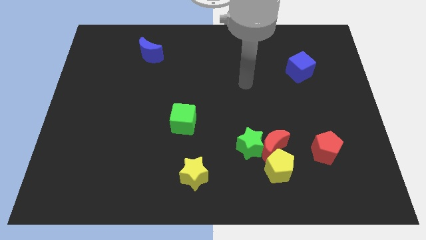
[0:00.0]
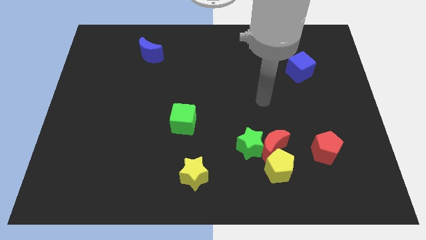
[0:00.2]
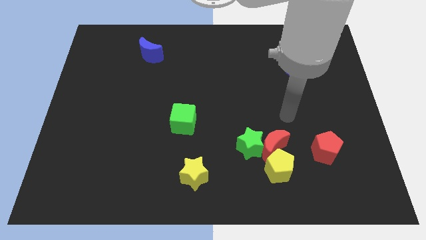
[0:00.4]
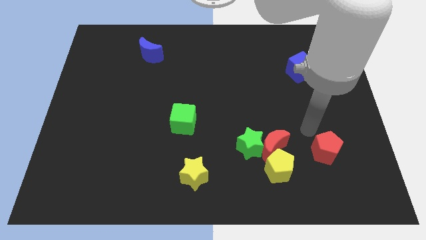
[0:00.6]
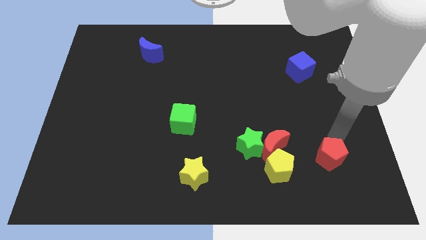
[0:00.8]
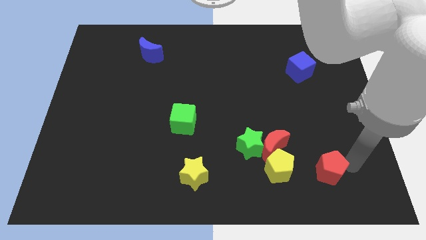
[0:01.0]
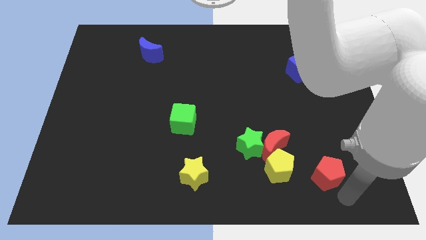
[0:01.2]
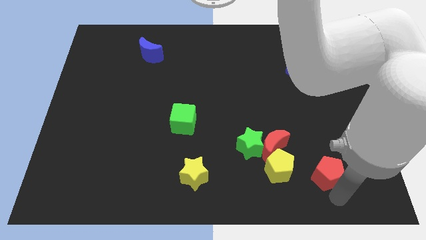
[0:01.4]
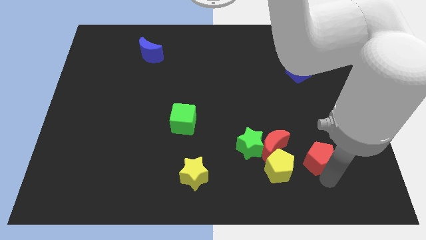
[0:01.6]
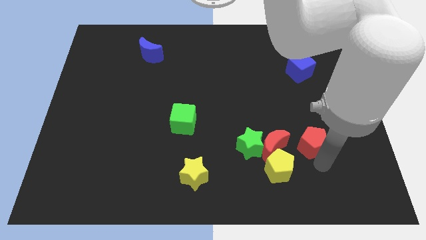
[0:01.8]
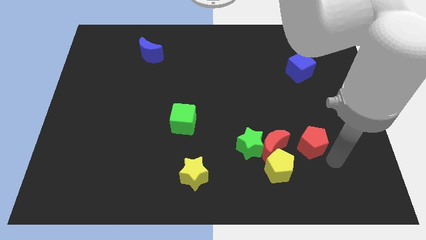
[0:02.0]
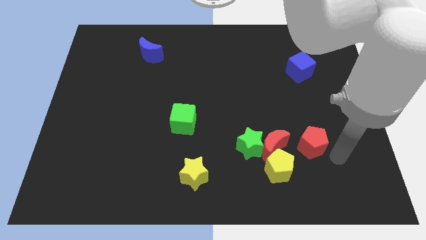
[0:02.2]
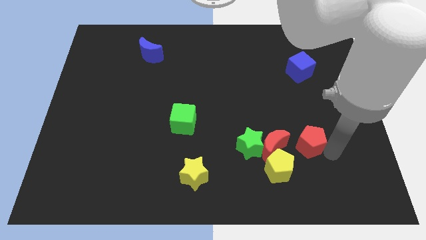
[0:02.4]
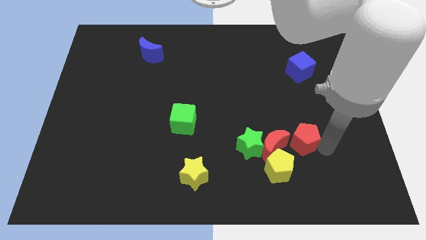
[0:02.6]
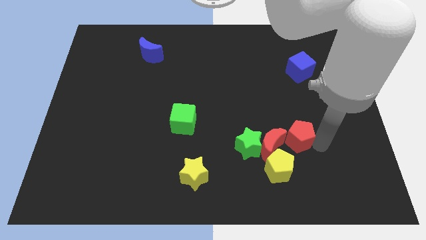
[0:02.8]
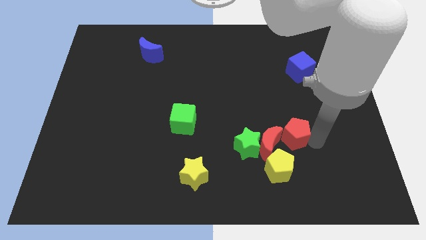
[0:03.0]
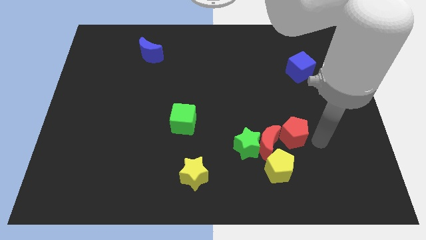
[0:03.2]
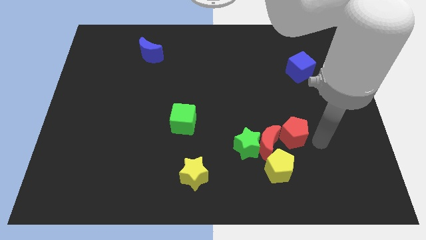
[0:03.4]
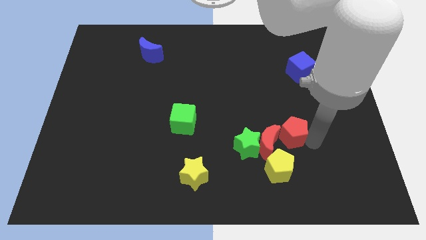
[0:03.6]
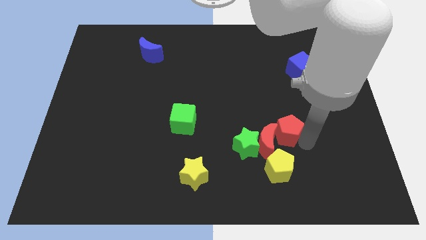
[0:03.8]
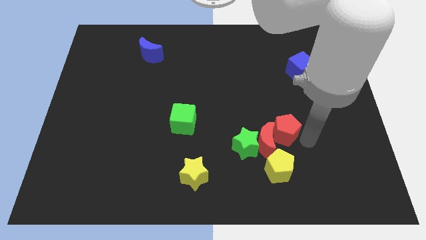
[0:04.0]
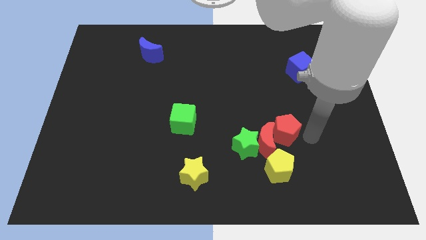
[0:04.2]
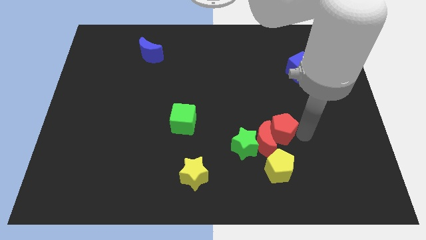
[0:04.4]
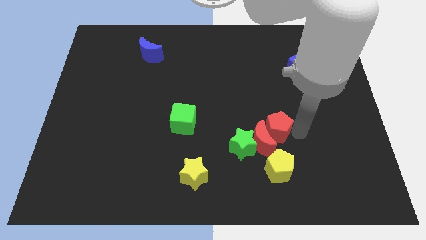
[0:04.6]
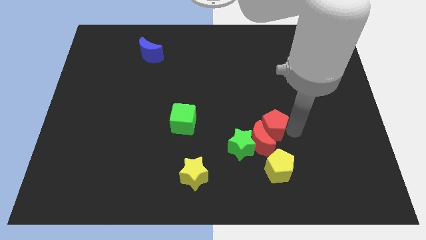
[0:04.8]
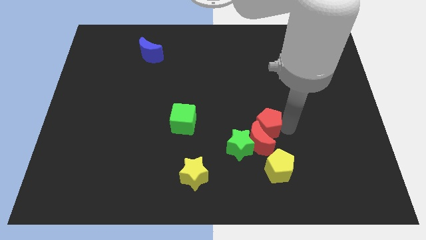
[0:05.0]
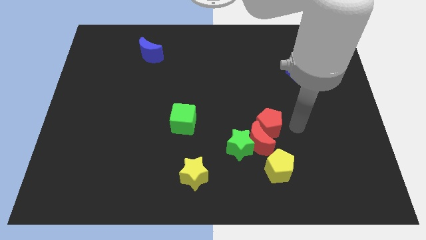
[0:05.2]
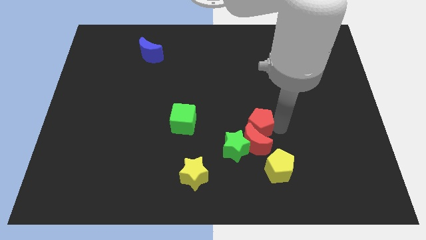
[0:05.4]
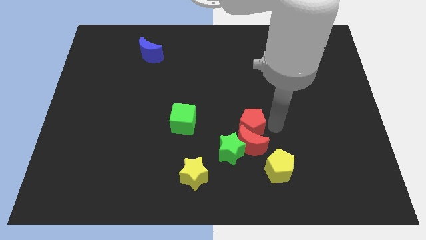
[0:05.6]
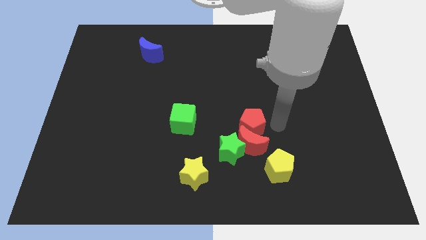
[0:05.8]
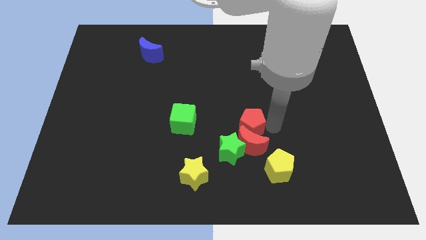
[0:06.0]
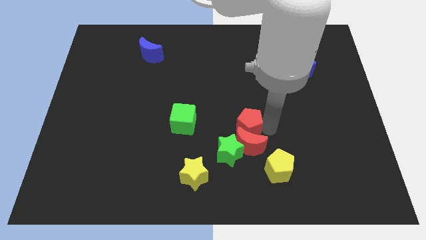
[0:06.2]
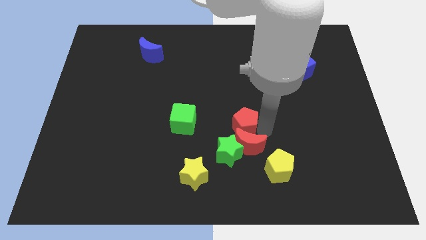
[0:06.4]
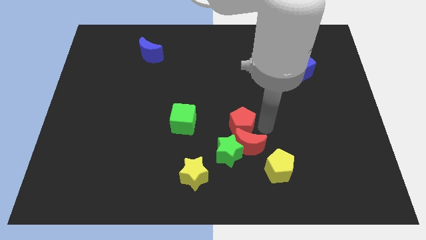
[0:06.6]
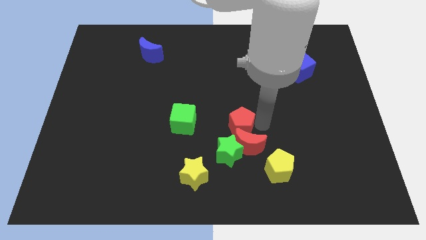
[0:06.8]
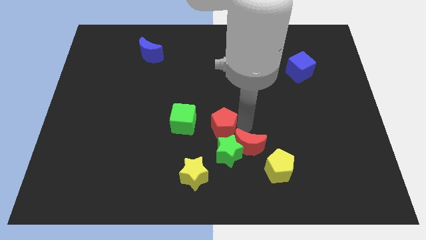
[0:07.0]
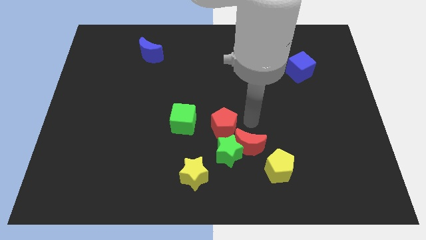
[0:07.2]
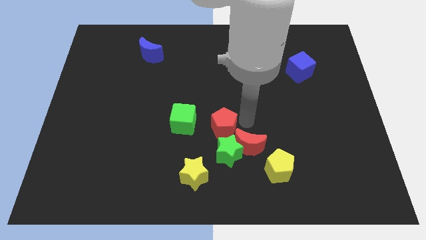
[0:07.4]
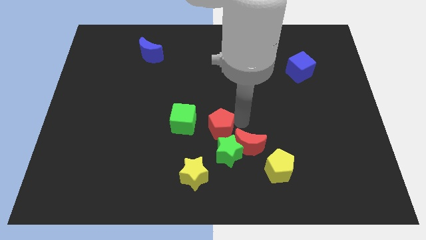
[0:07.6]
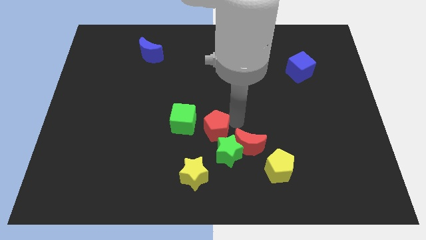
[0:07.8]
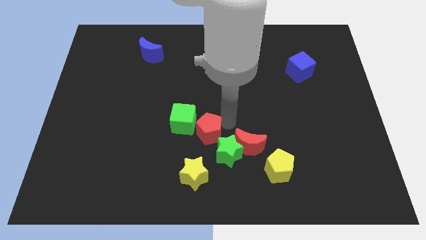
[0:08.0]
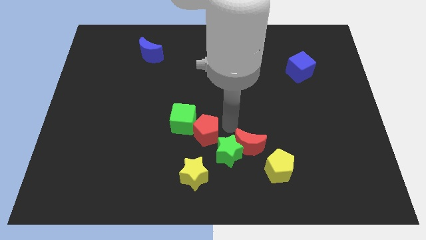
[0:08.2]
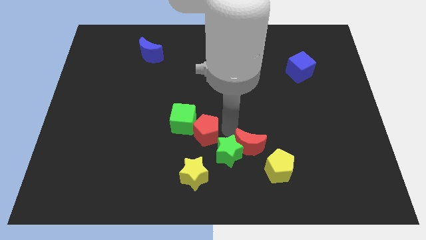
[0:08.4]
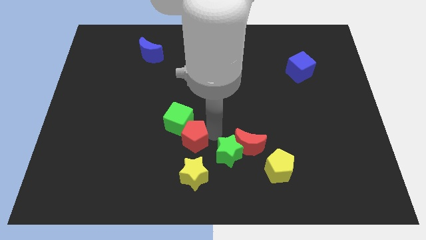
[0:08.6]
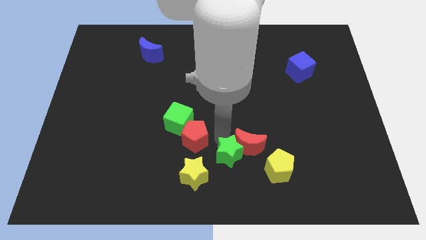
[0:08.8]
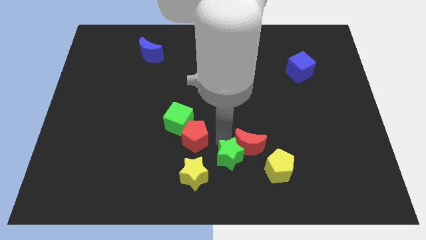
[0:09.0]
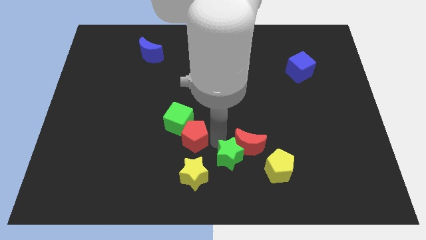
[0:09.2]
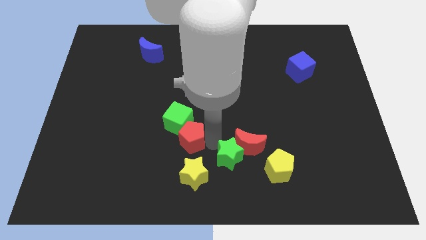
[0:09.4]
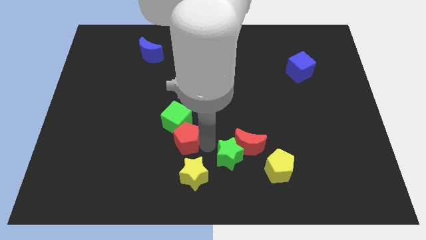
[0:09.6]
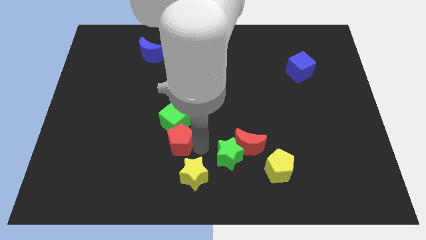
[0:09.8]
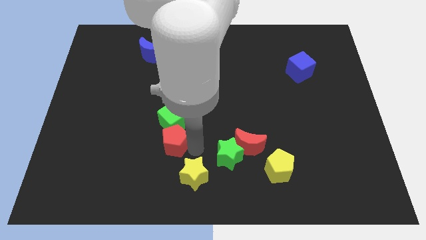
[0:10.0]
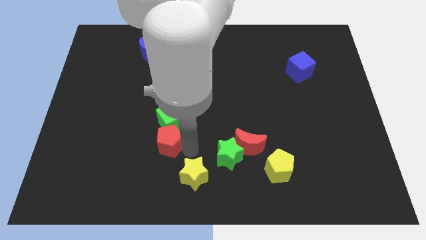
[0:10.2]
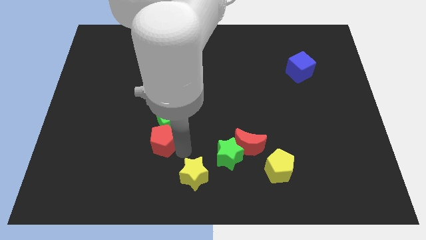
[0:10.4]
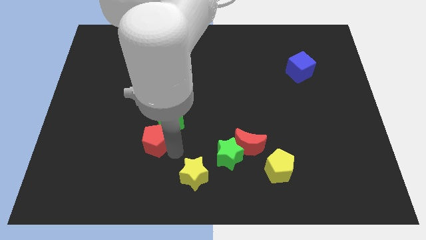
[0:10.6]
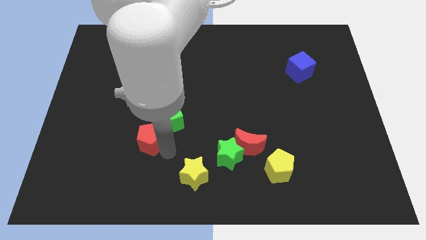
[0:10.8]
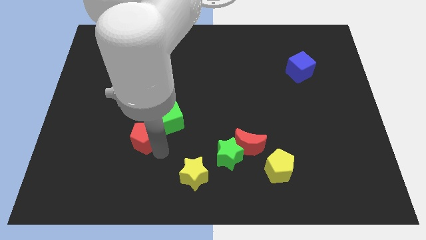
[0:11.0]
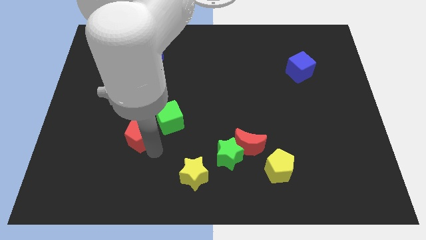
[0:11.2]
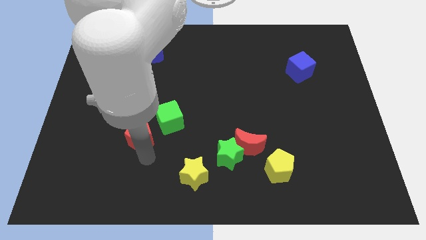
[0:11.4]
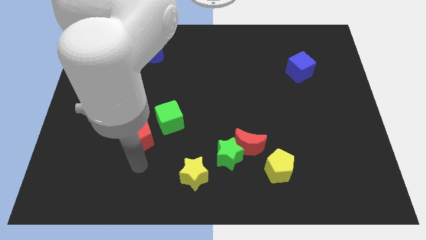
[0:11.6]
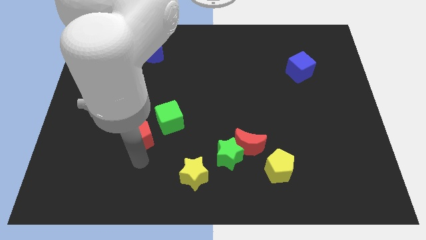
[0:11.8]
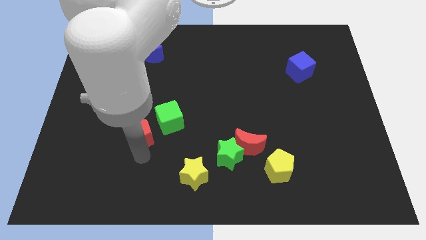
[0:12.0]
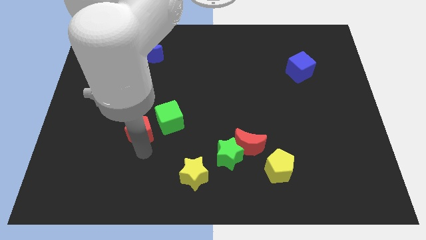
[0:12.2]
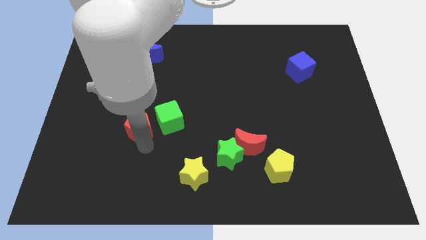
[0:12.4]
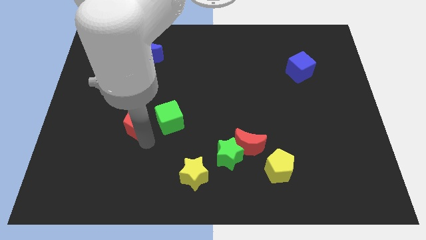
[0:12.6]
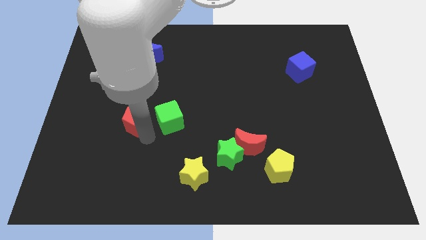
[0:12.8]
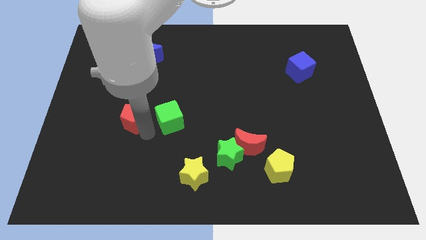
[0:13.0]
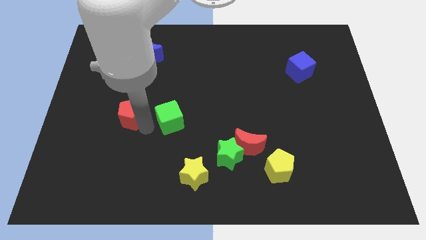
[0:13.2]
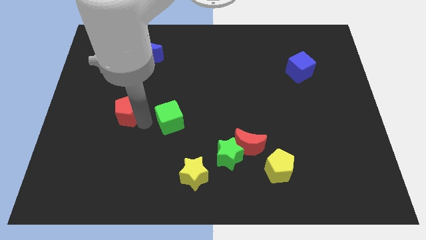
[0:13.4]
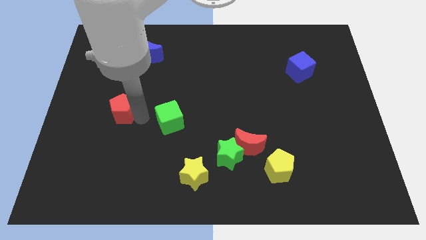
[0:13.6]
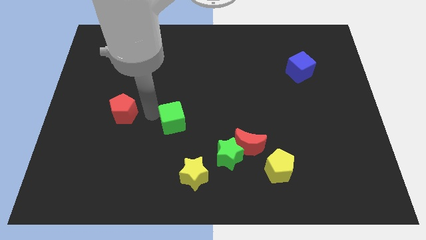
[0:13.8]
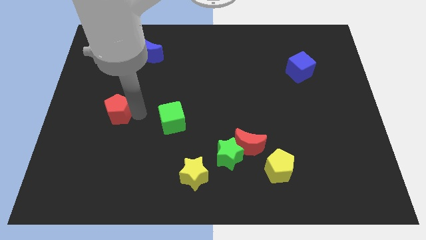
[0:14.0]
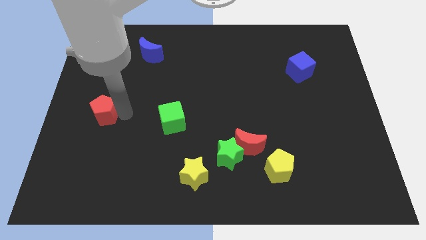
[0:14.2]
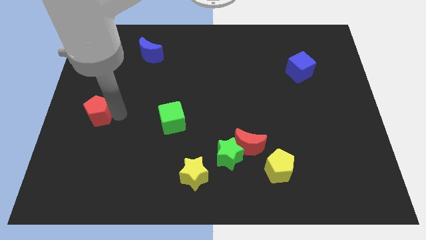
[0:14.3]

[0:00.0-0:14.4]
slide the red pentagon to the center left
